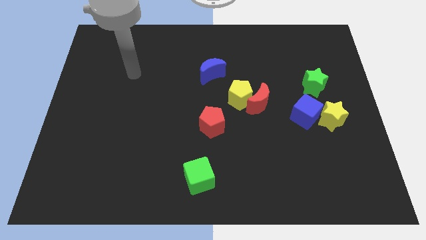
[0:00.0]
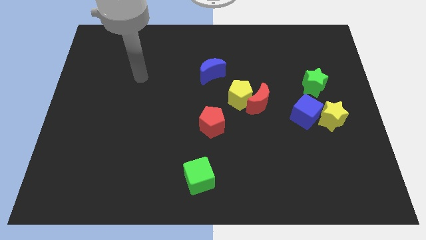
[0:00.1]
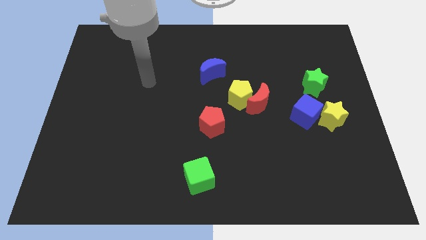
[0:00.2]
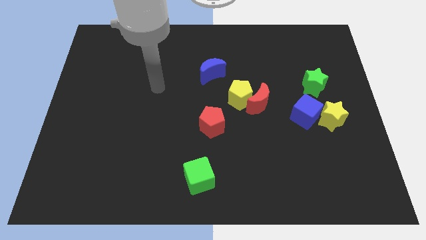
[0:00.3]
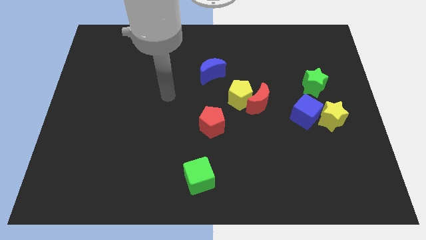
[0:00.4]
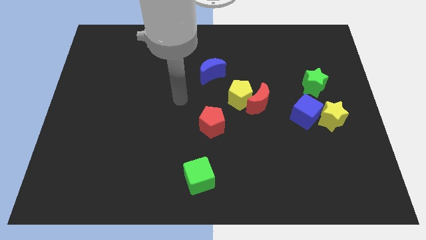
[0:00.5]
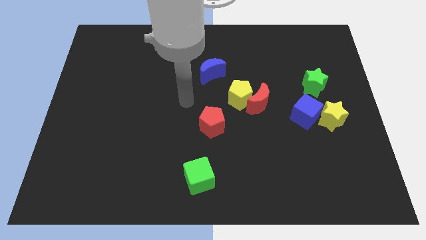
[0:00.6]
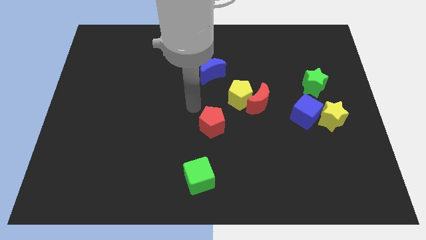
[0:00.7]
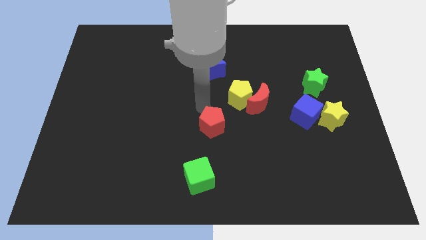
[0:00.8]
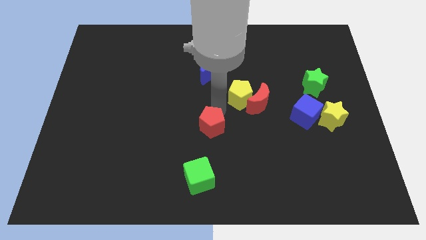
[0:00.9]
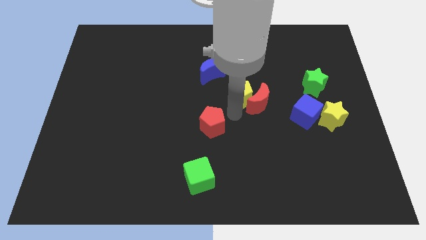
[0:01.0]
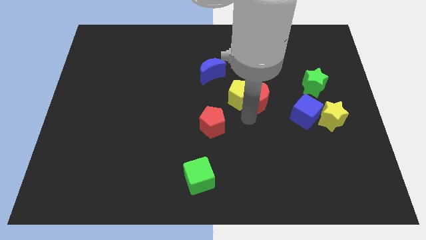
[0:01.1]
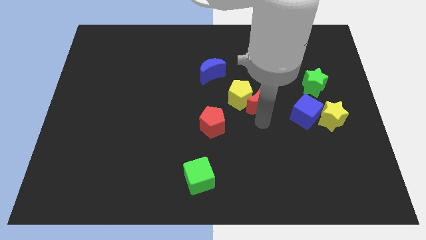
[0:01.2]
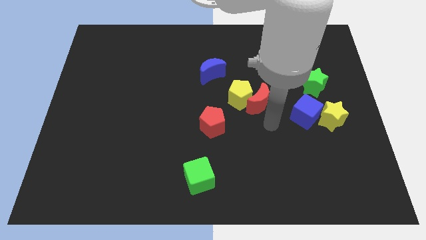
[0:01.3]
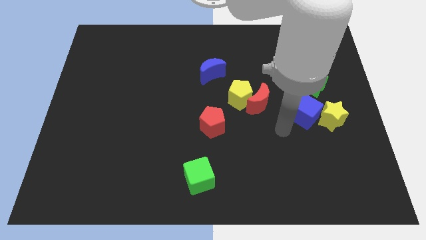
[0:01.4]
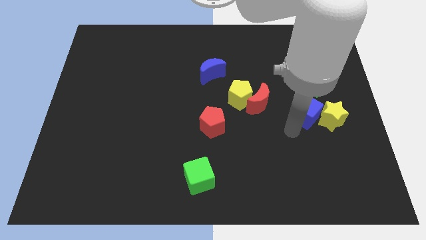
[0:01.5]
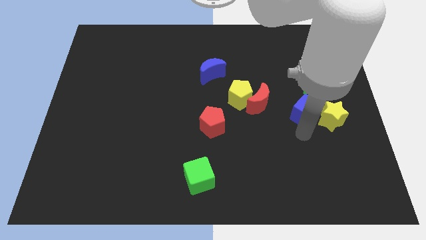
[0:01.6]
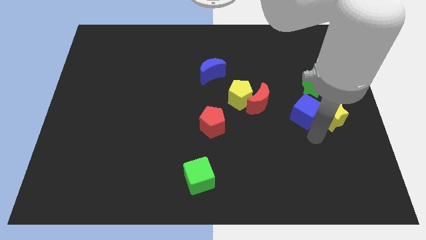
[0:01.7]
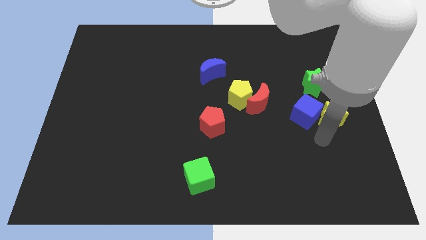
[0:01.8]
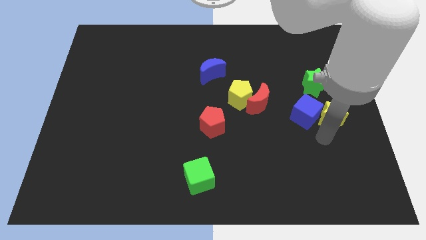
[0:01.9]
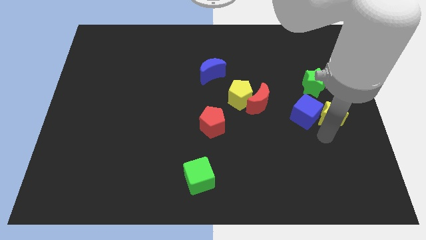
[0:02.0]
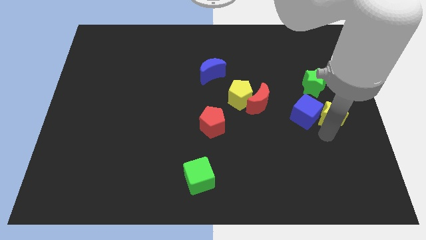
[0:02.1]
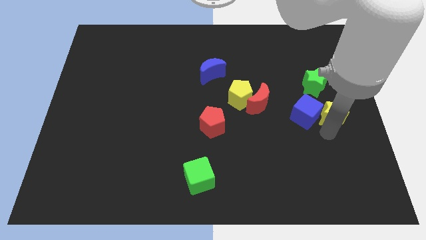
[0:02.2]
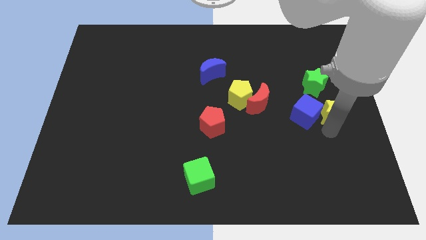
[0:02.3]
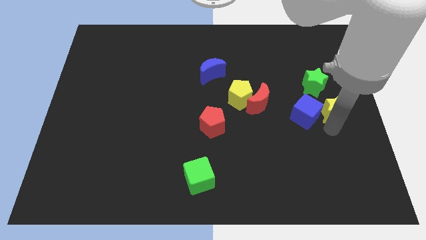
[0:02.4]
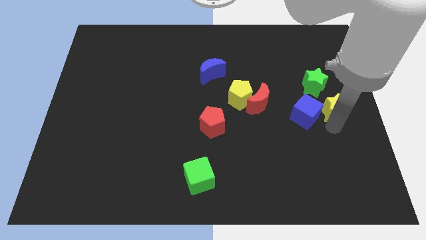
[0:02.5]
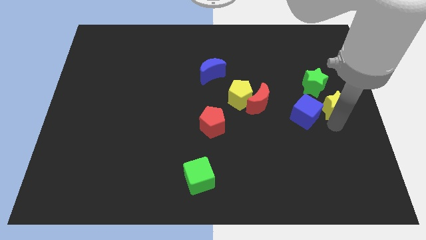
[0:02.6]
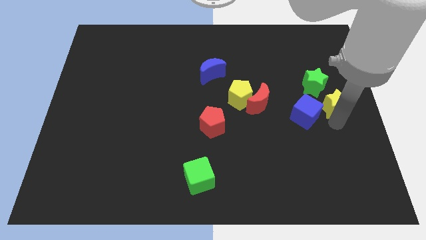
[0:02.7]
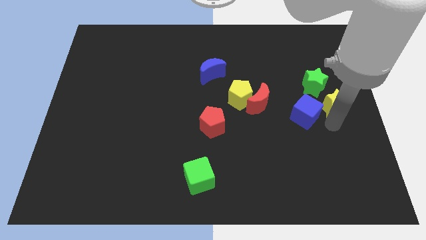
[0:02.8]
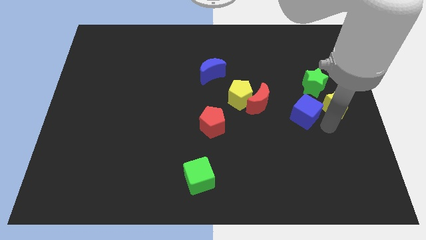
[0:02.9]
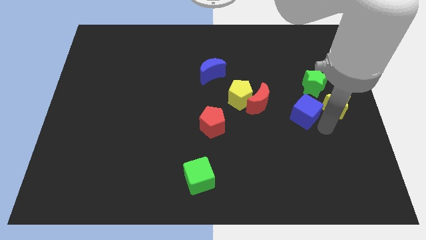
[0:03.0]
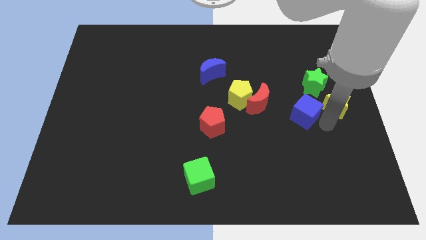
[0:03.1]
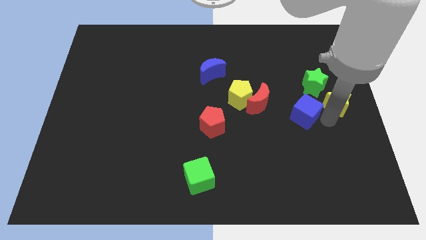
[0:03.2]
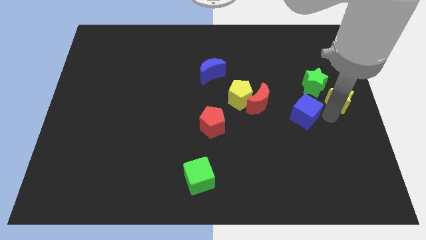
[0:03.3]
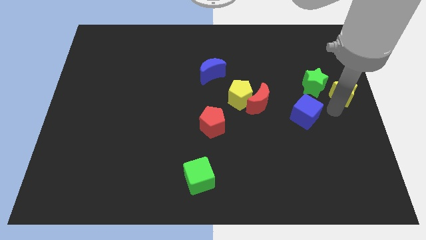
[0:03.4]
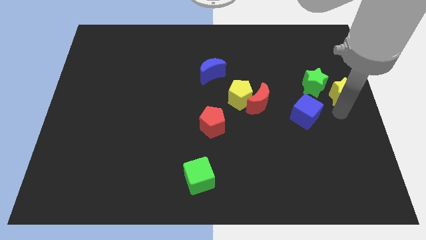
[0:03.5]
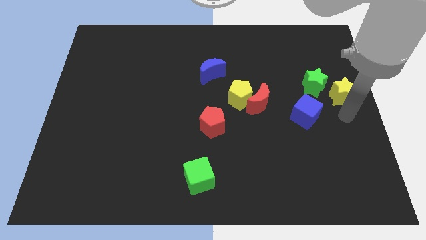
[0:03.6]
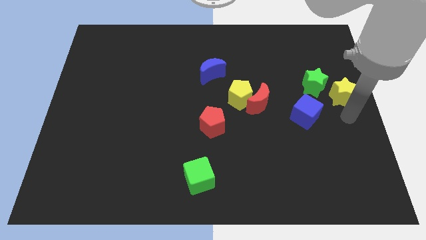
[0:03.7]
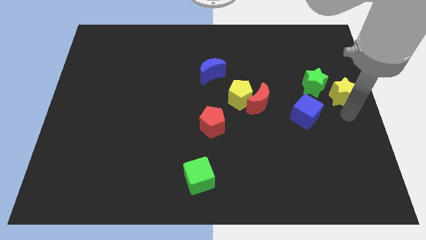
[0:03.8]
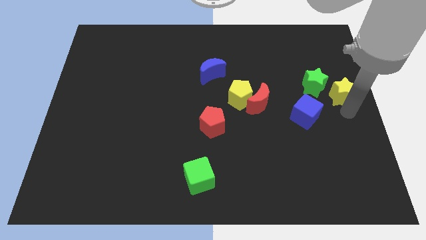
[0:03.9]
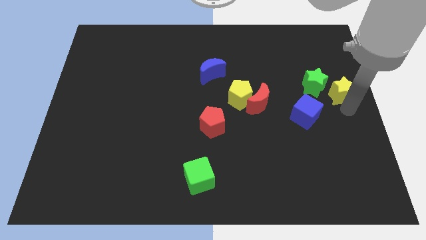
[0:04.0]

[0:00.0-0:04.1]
push the yellow star upwards a bit

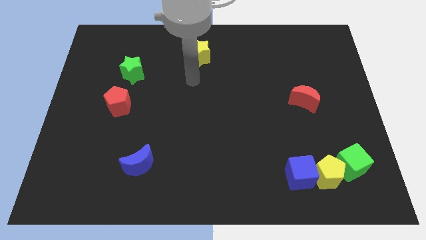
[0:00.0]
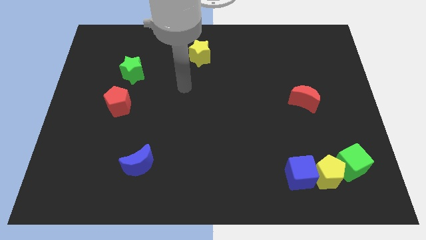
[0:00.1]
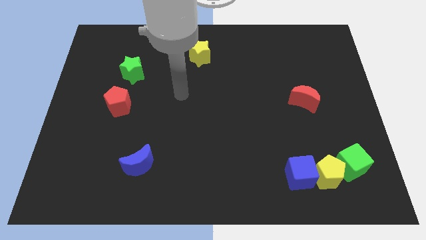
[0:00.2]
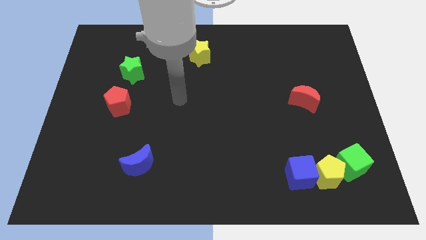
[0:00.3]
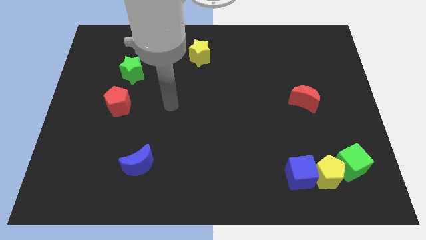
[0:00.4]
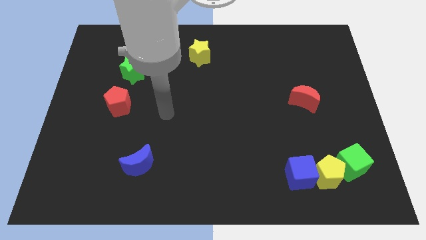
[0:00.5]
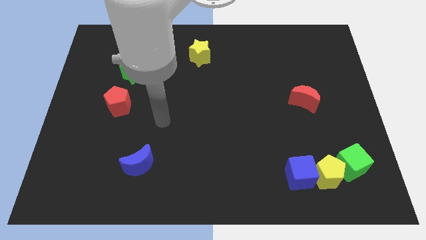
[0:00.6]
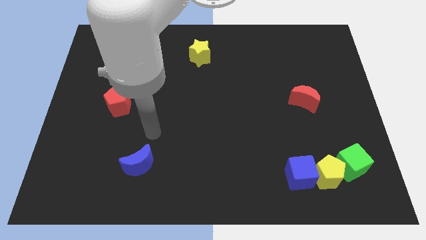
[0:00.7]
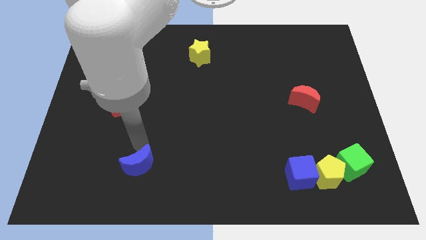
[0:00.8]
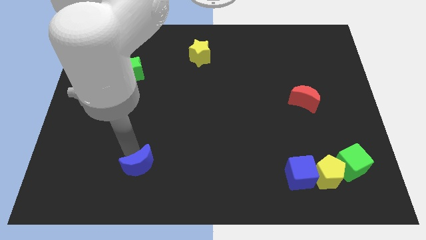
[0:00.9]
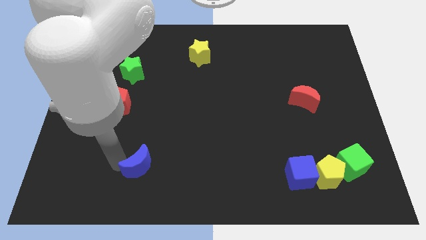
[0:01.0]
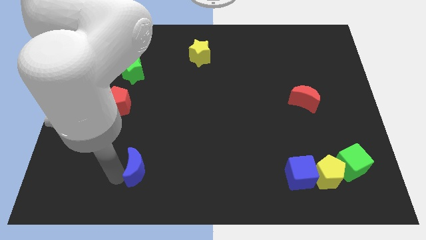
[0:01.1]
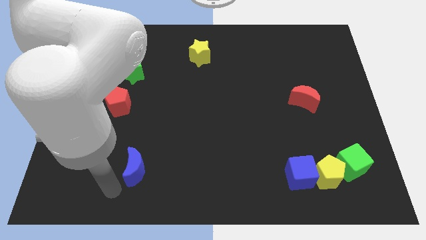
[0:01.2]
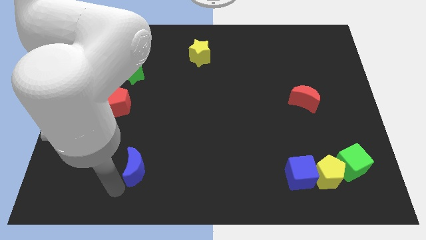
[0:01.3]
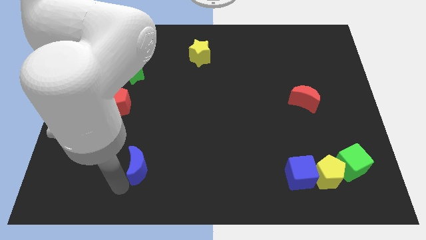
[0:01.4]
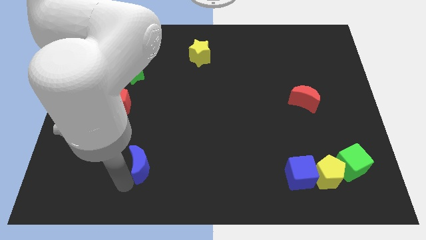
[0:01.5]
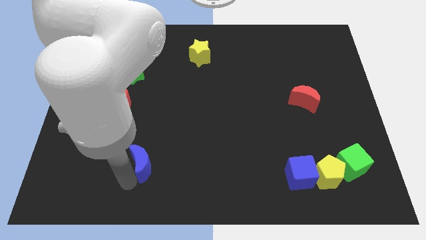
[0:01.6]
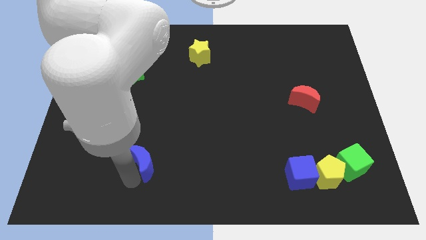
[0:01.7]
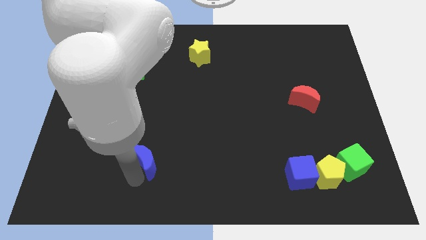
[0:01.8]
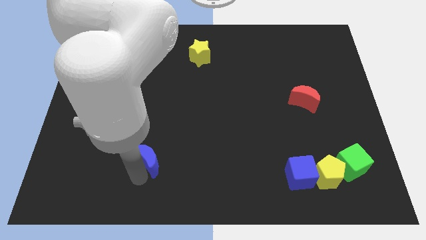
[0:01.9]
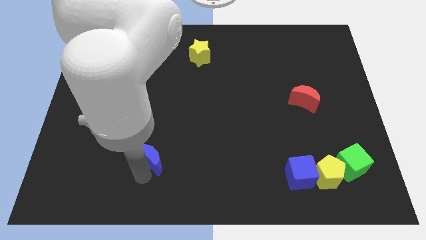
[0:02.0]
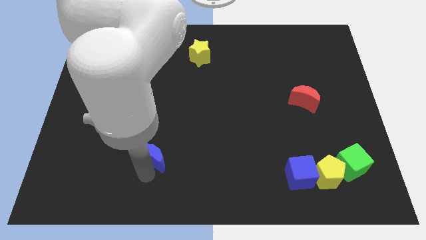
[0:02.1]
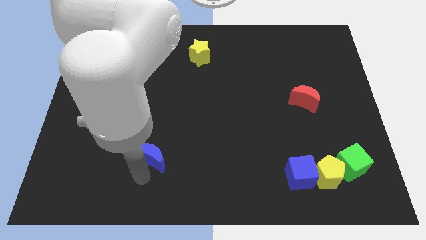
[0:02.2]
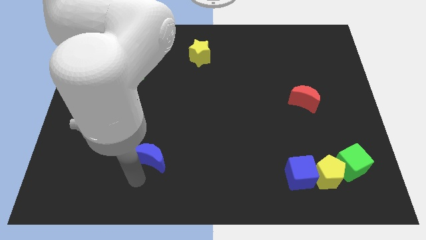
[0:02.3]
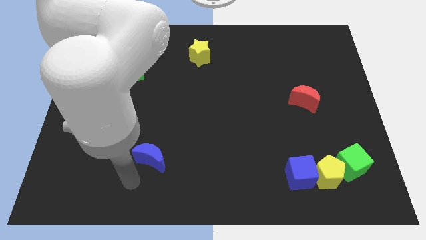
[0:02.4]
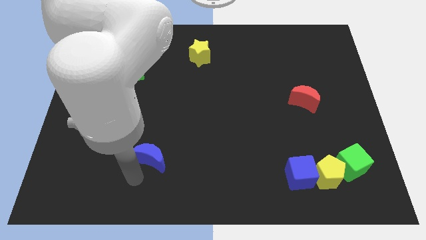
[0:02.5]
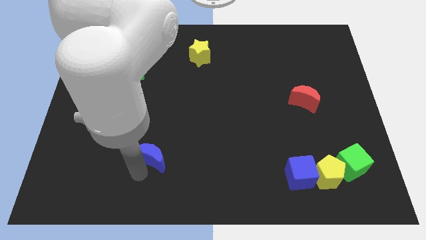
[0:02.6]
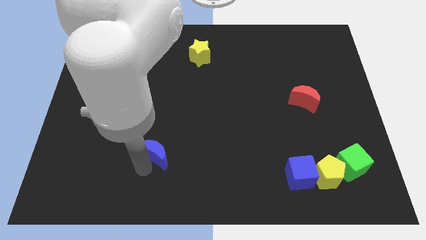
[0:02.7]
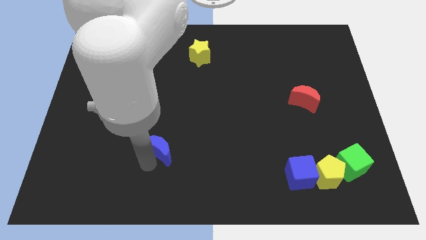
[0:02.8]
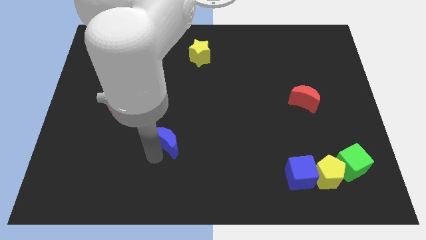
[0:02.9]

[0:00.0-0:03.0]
slightly slide the blue moon up and to the right

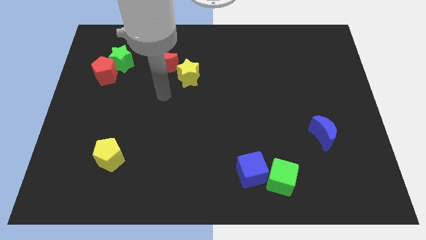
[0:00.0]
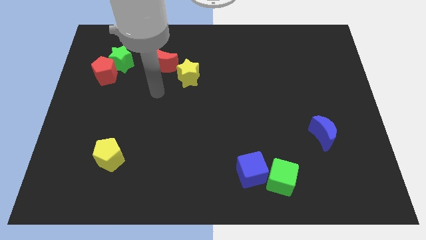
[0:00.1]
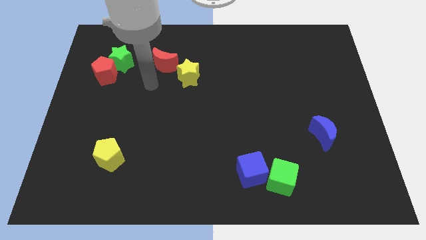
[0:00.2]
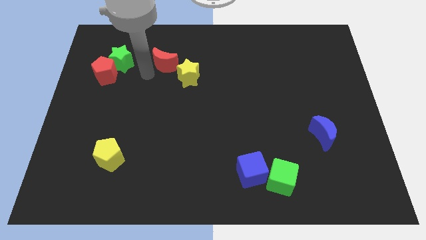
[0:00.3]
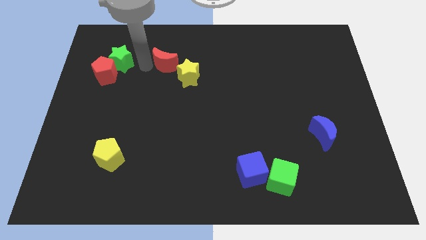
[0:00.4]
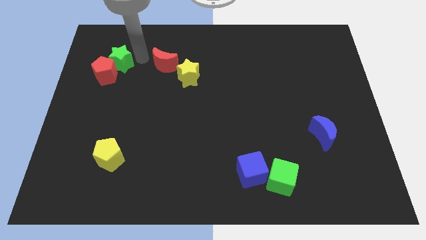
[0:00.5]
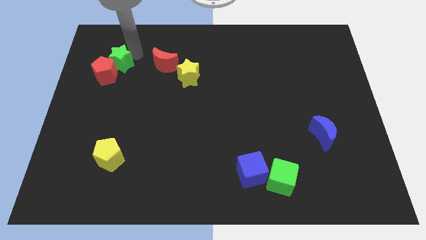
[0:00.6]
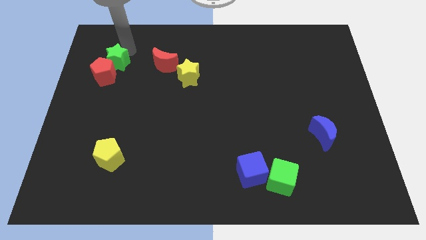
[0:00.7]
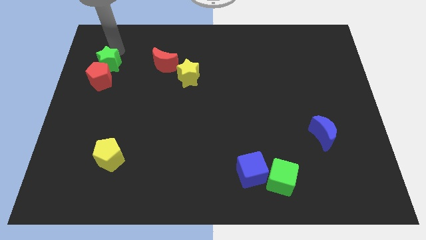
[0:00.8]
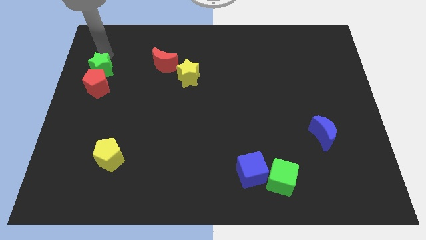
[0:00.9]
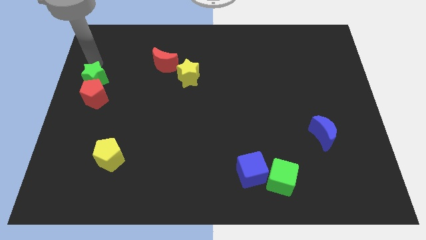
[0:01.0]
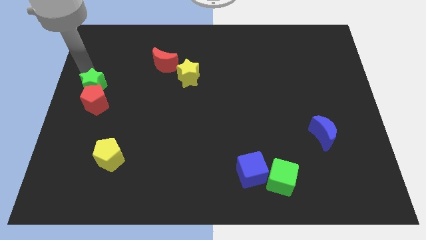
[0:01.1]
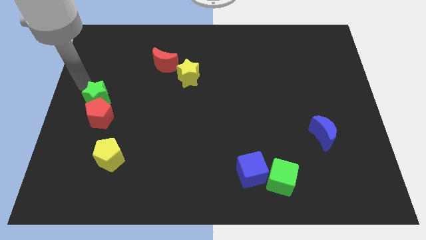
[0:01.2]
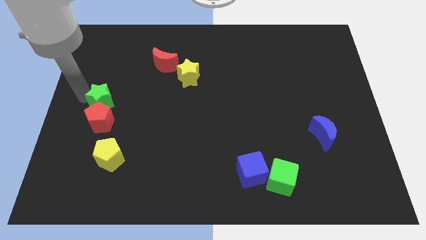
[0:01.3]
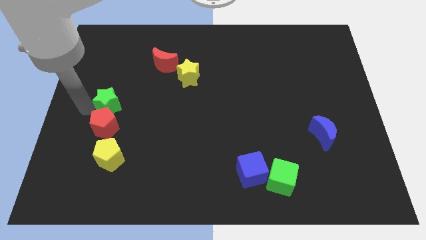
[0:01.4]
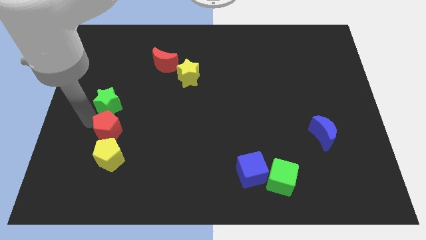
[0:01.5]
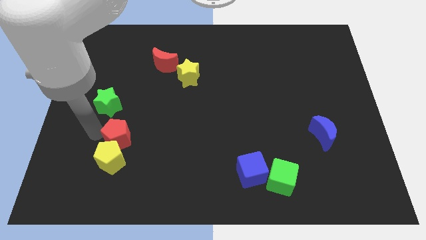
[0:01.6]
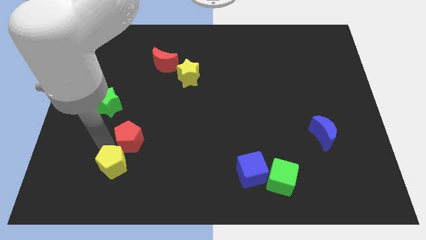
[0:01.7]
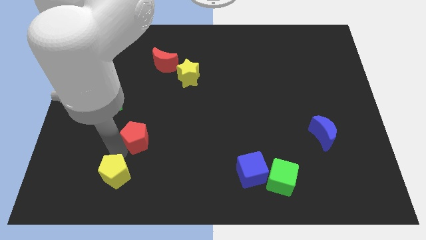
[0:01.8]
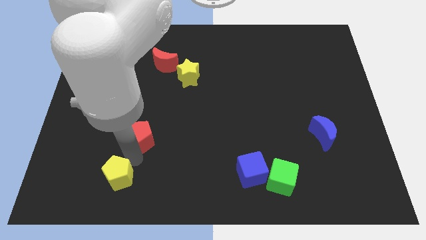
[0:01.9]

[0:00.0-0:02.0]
move the red pentagon diagonally down and to the right
